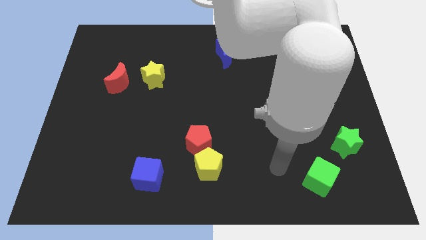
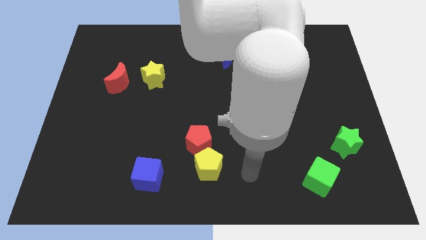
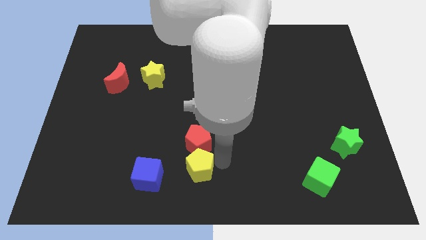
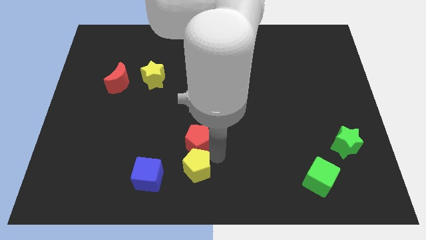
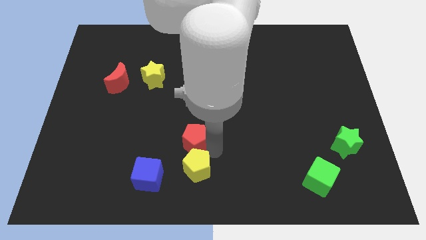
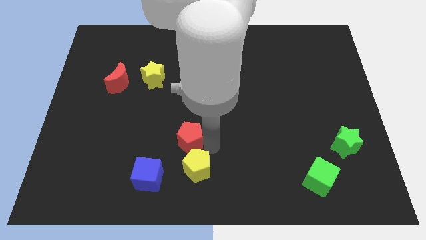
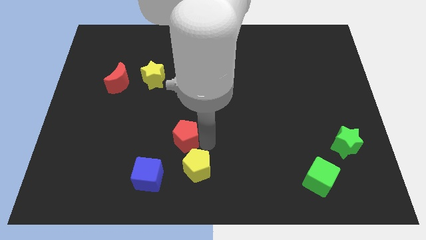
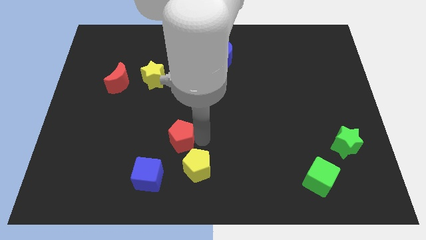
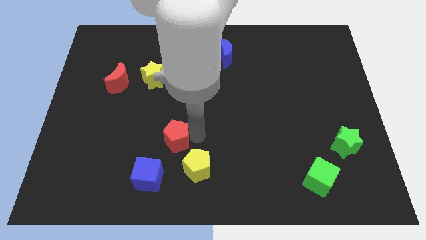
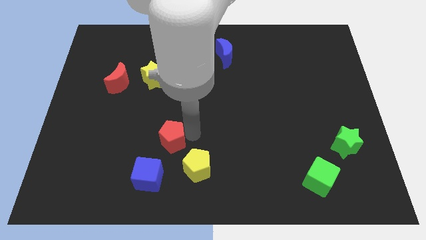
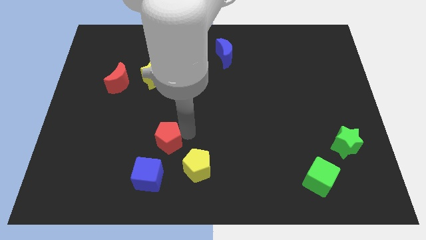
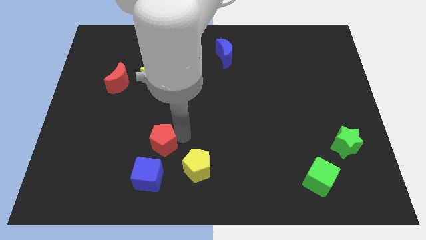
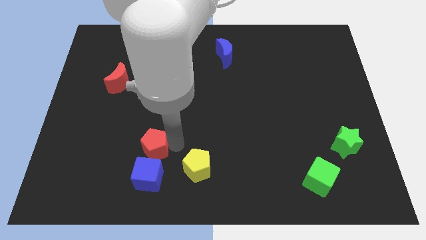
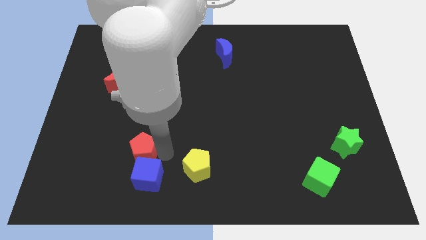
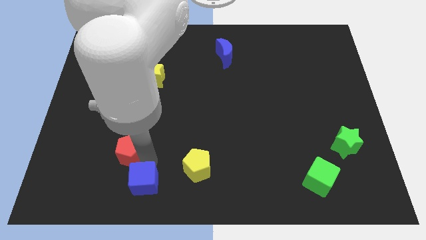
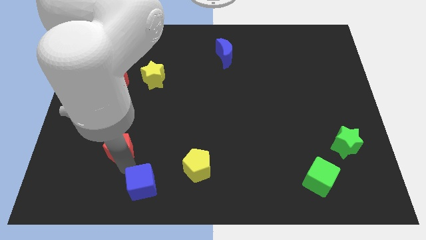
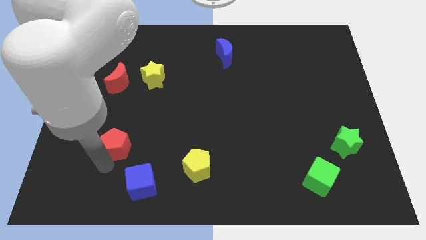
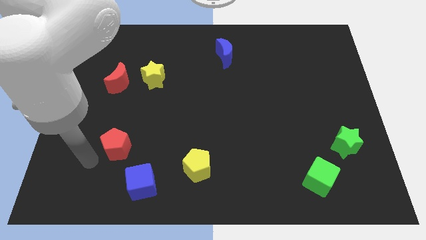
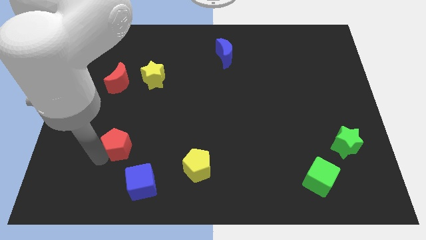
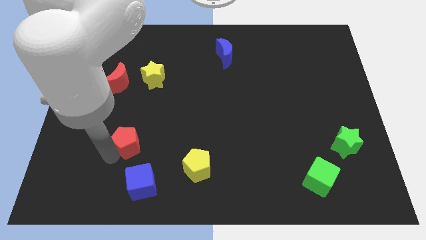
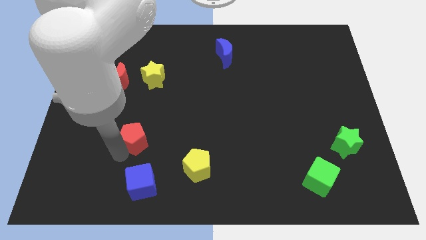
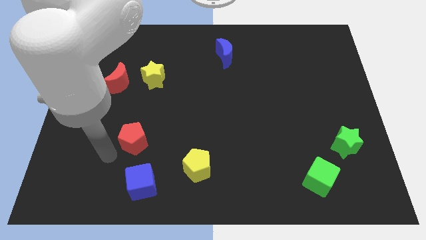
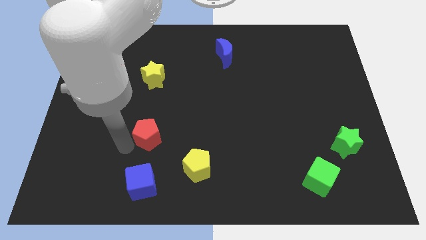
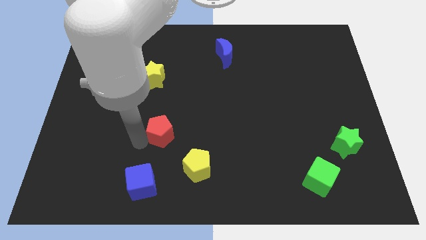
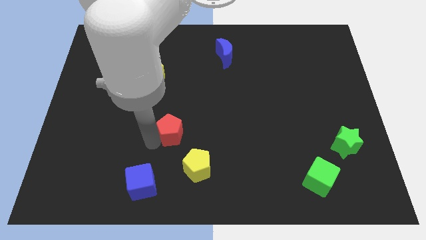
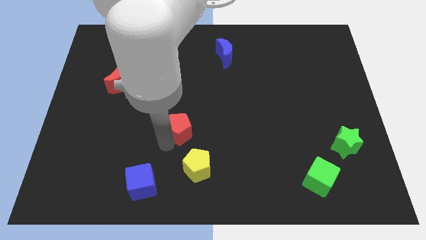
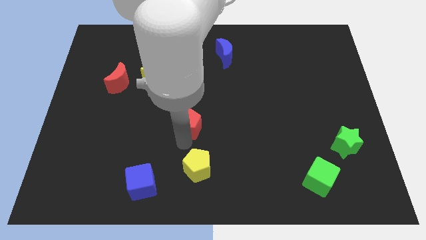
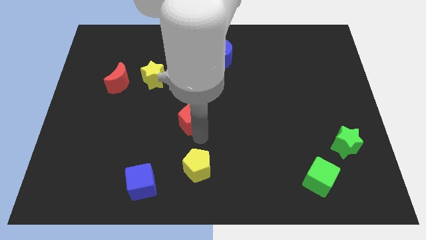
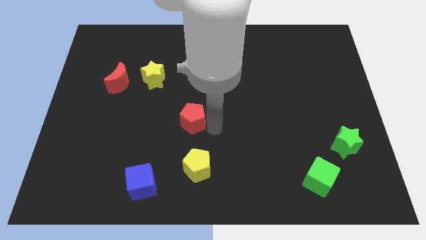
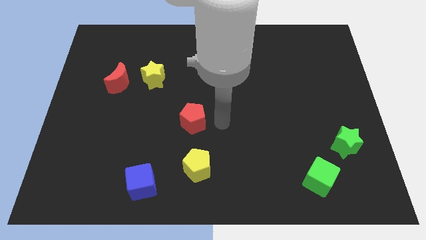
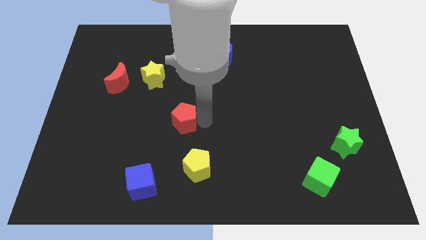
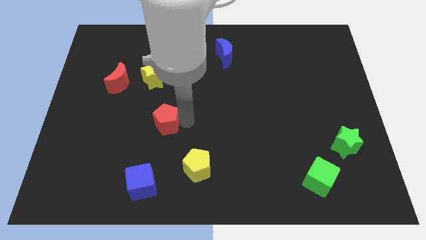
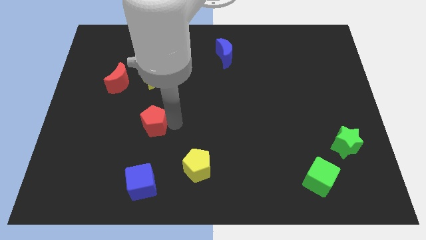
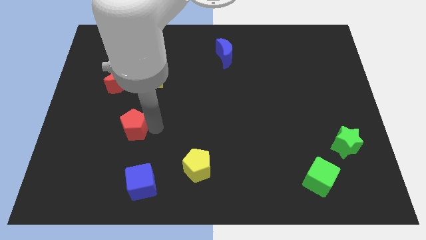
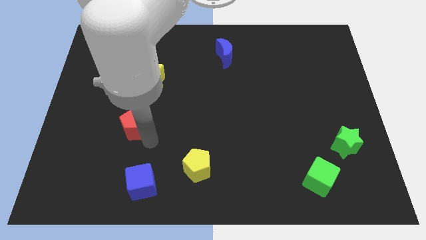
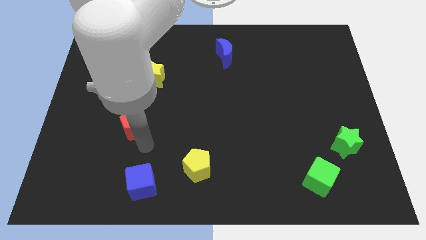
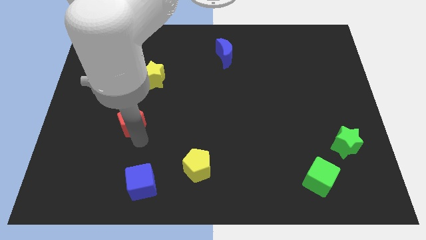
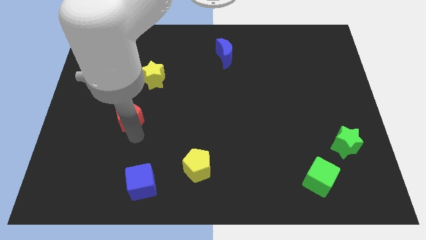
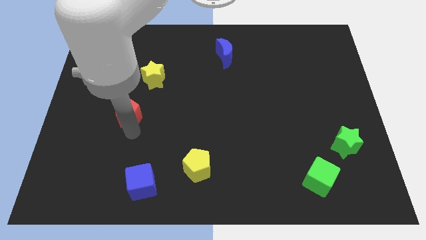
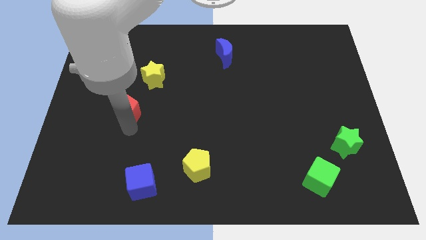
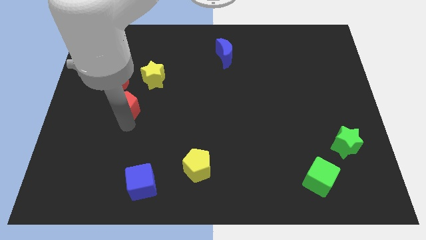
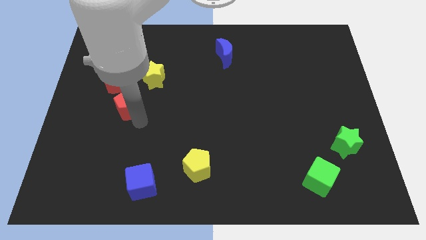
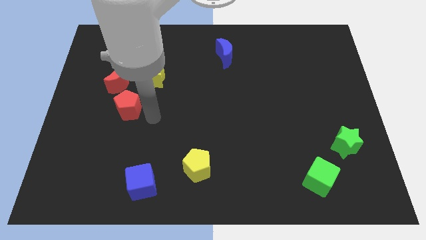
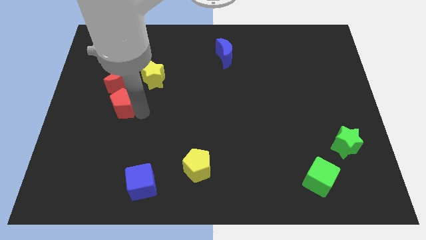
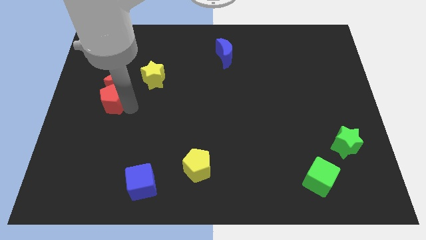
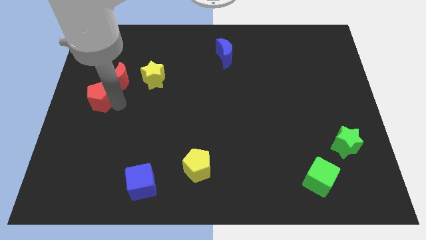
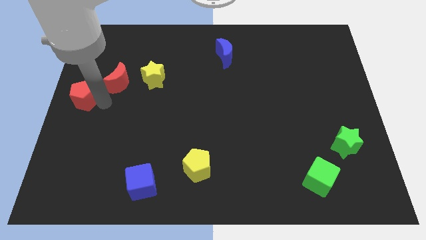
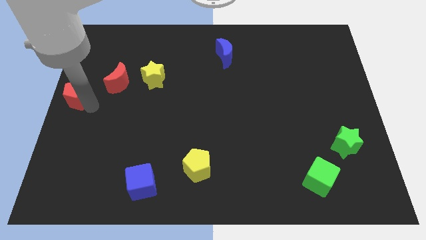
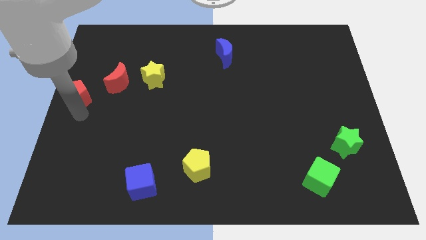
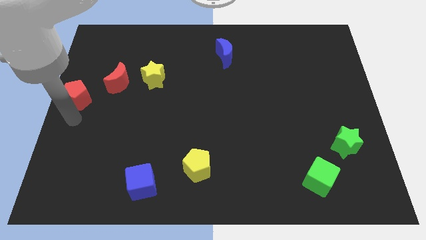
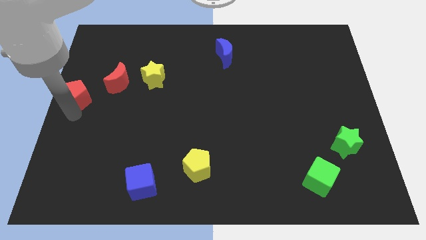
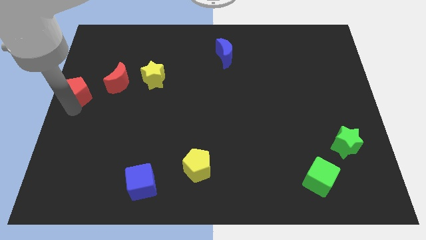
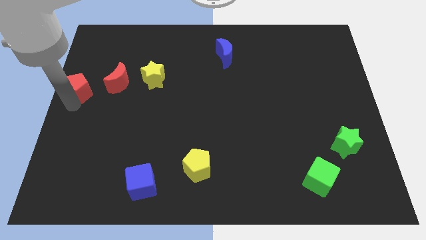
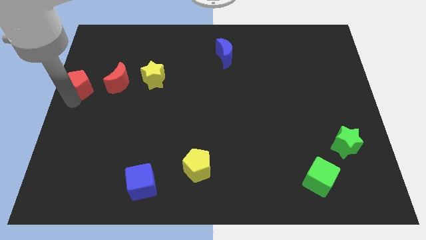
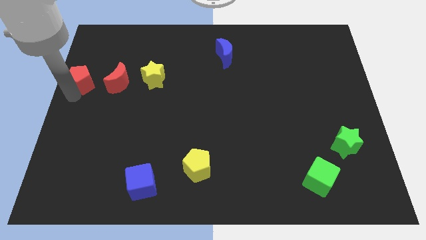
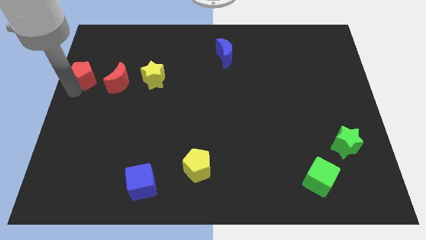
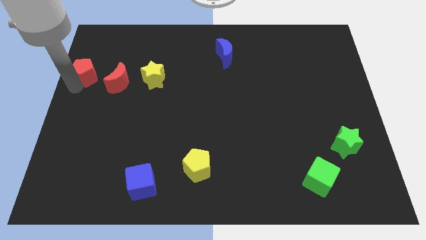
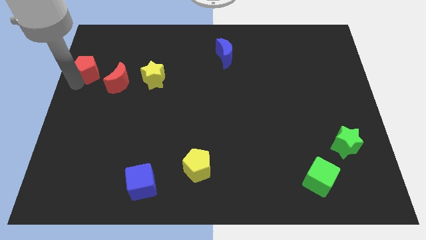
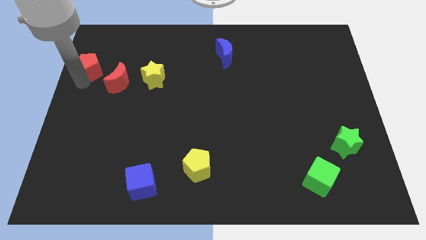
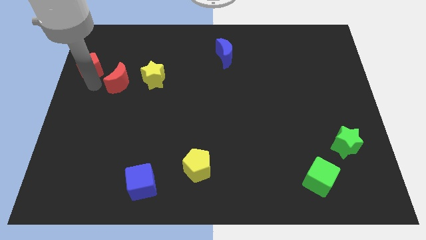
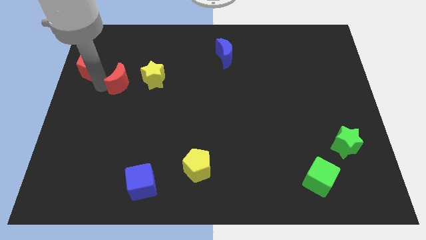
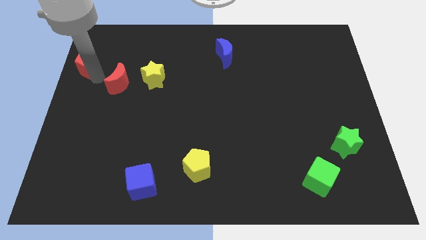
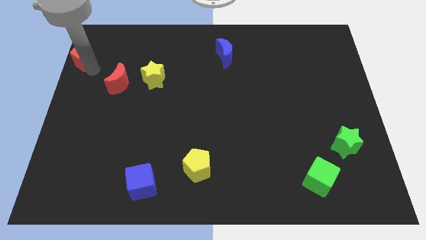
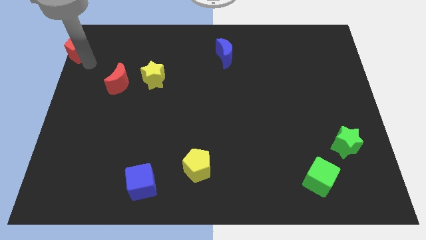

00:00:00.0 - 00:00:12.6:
push the red pentagon to the upper left corner
